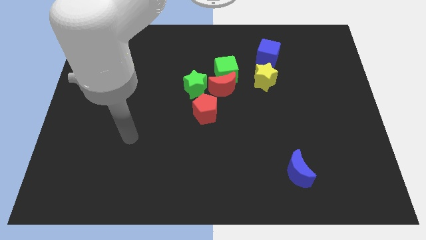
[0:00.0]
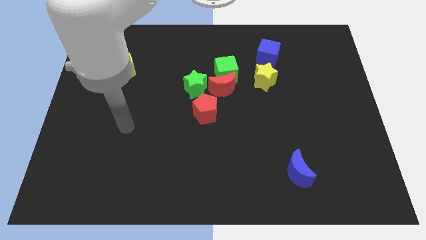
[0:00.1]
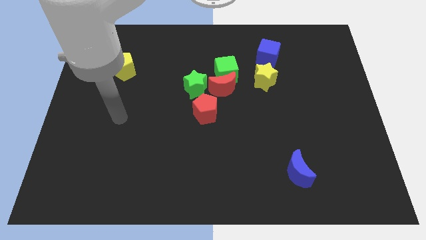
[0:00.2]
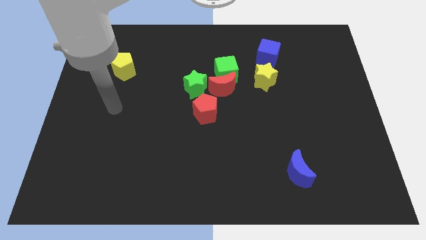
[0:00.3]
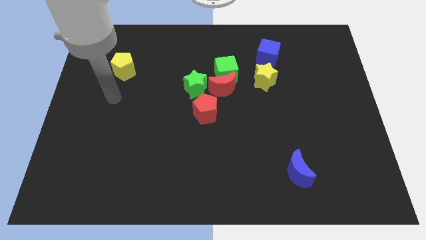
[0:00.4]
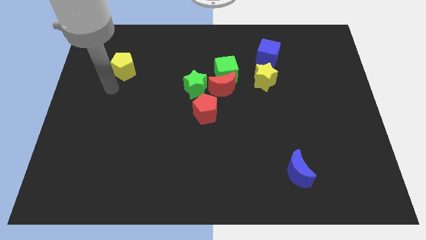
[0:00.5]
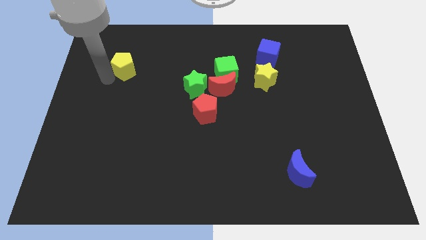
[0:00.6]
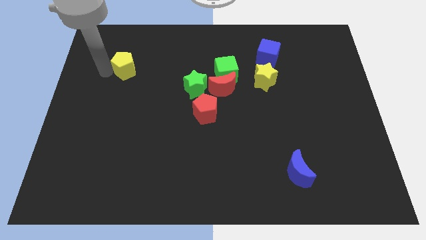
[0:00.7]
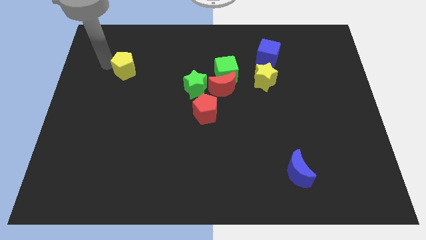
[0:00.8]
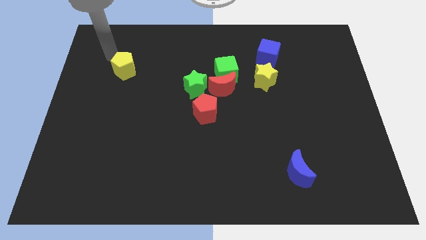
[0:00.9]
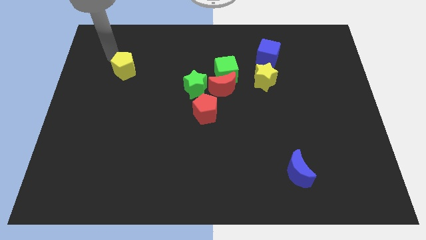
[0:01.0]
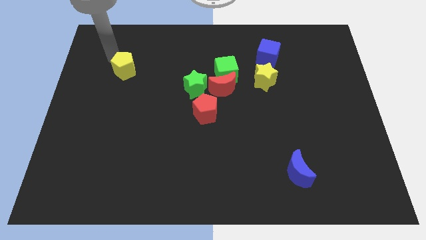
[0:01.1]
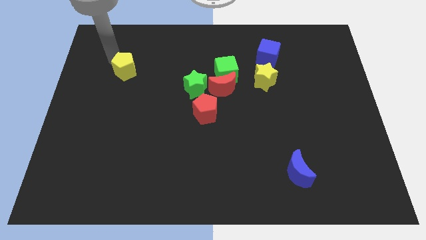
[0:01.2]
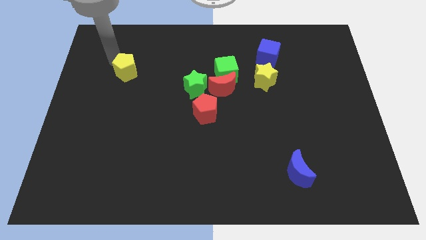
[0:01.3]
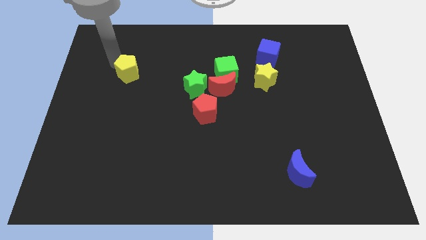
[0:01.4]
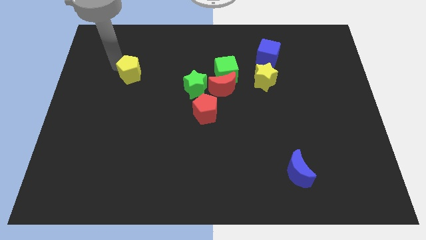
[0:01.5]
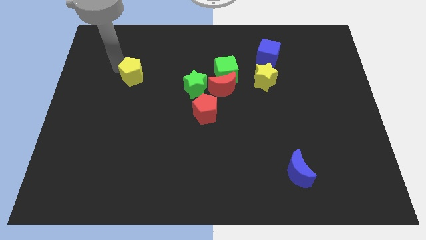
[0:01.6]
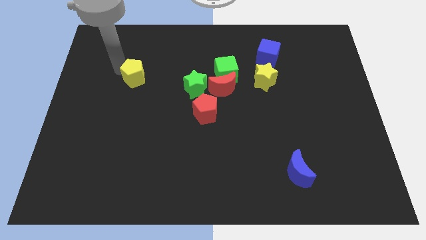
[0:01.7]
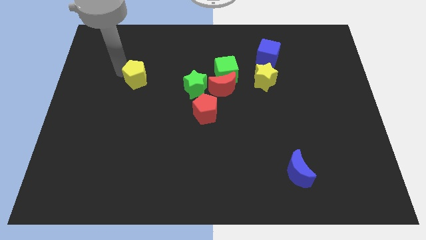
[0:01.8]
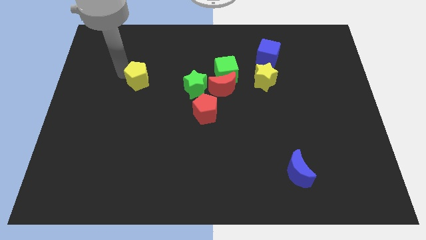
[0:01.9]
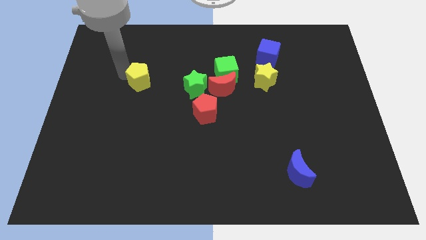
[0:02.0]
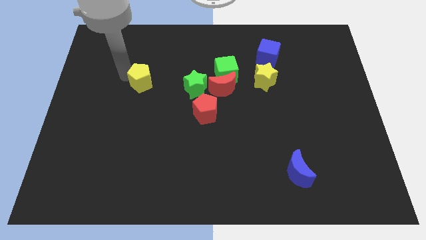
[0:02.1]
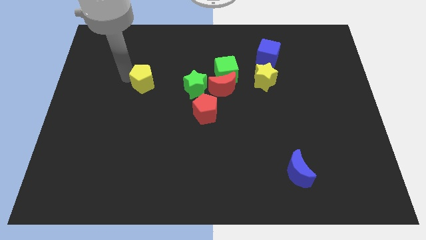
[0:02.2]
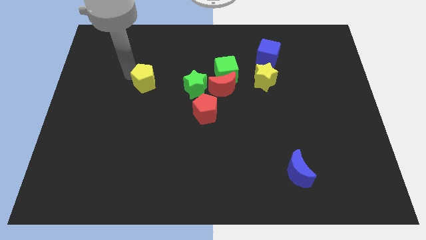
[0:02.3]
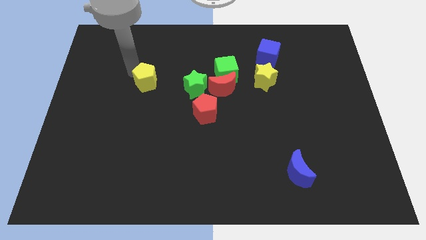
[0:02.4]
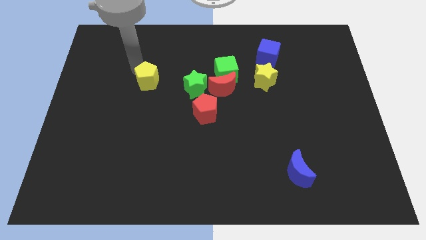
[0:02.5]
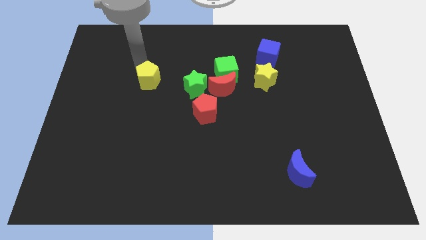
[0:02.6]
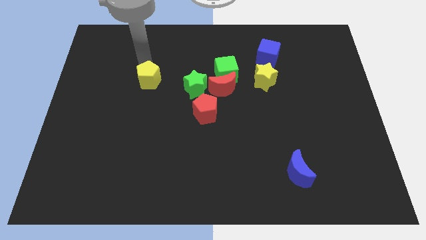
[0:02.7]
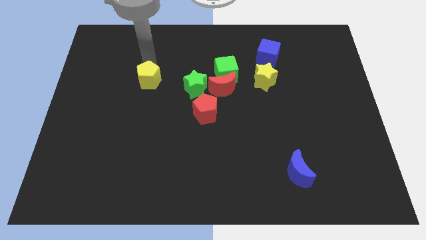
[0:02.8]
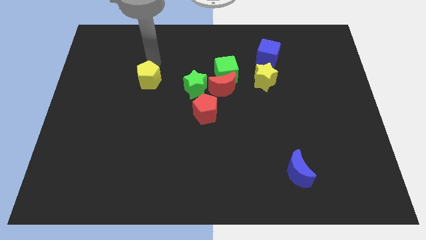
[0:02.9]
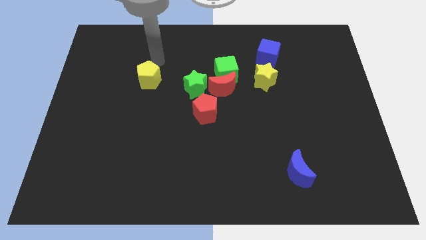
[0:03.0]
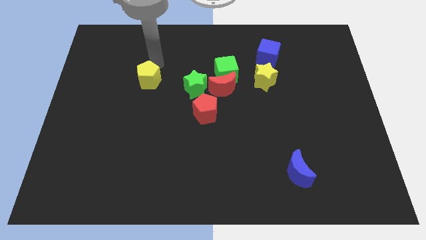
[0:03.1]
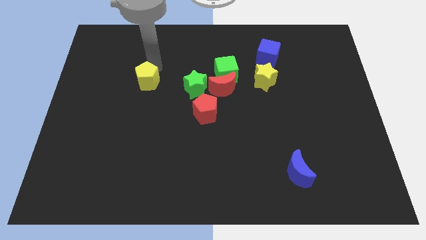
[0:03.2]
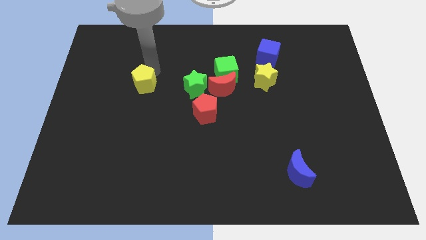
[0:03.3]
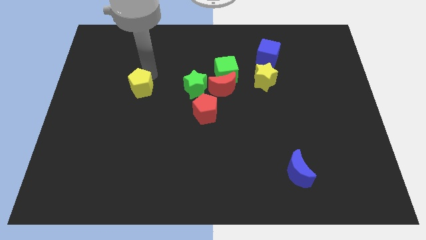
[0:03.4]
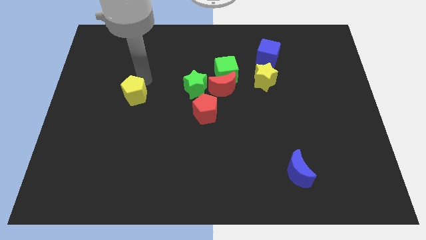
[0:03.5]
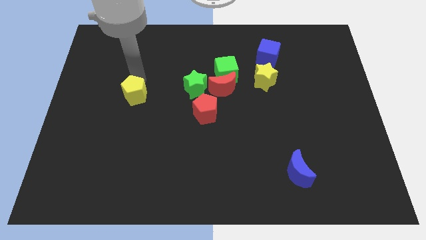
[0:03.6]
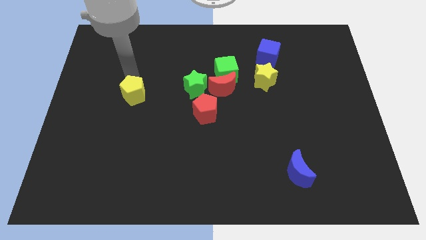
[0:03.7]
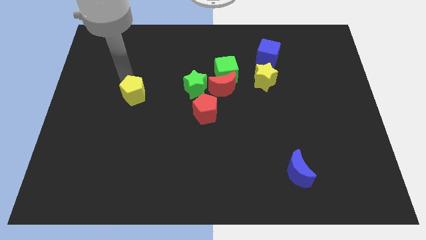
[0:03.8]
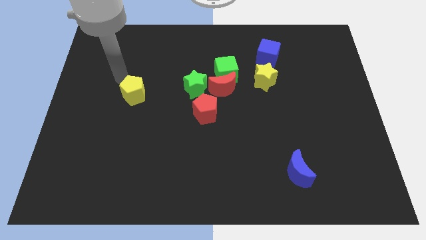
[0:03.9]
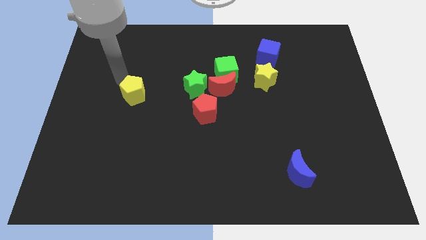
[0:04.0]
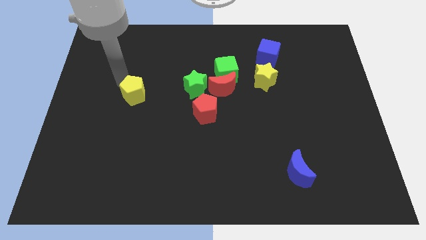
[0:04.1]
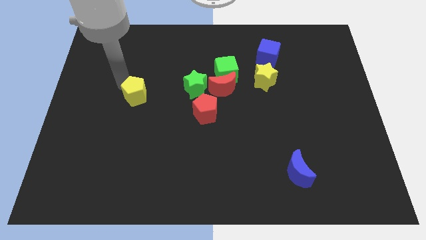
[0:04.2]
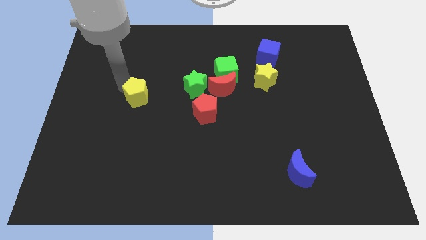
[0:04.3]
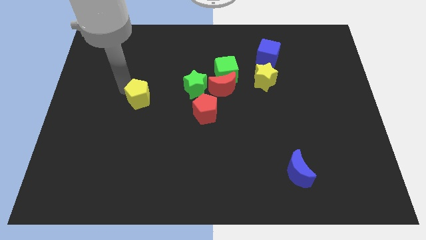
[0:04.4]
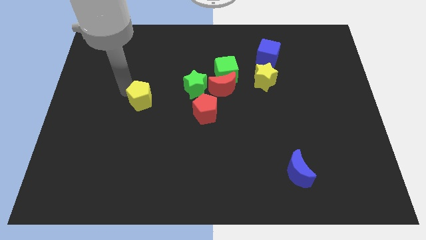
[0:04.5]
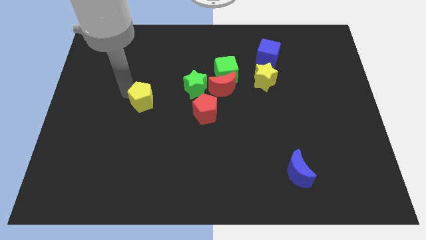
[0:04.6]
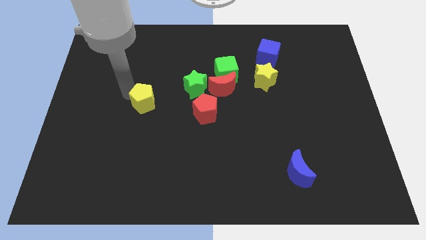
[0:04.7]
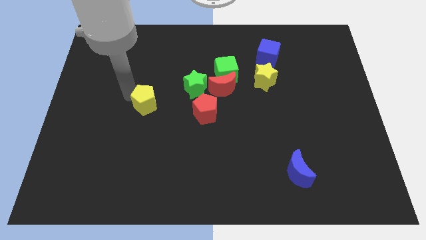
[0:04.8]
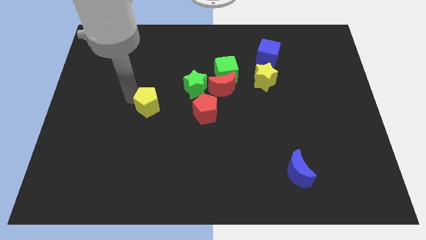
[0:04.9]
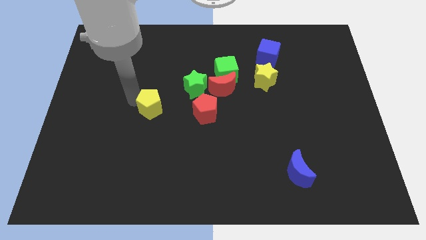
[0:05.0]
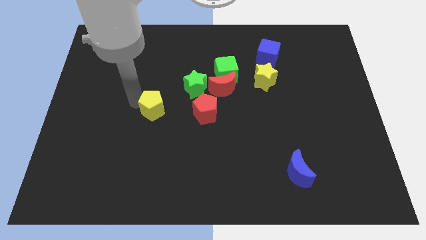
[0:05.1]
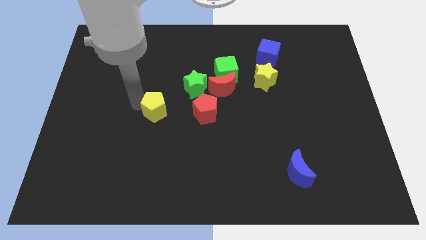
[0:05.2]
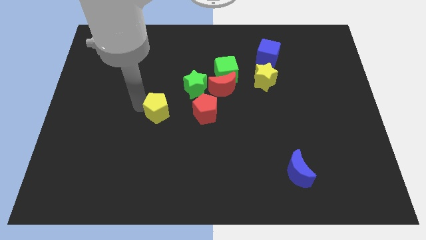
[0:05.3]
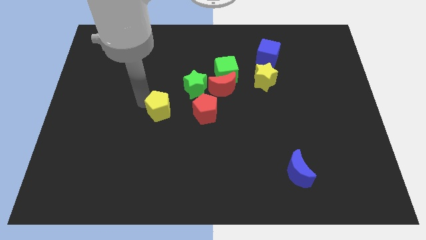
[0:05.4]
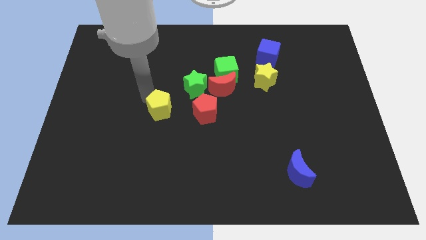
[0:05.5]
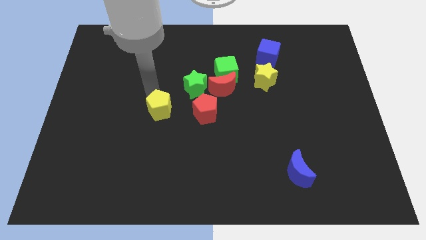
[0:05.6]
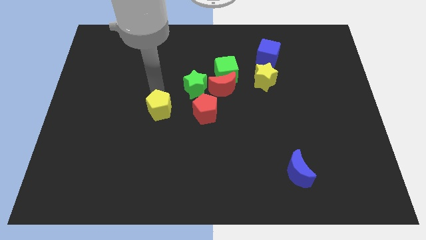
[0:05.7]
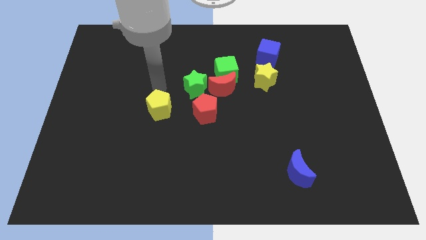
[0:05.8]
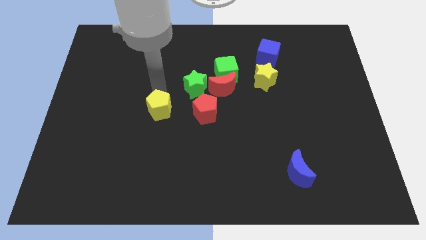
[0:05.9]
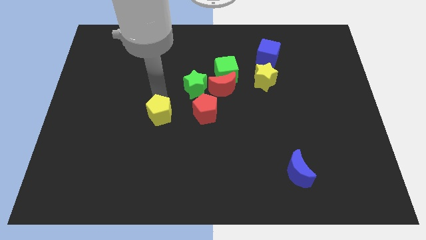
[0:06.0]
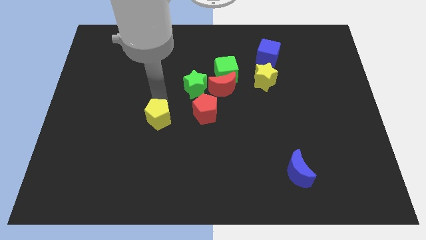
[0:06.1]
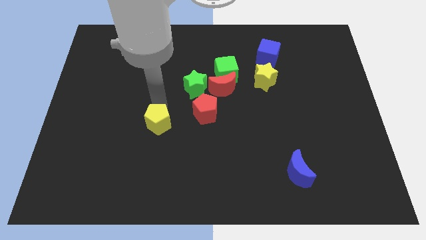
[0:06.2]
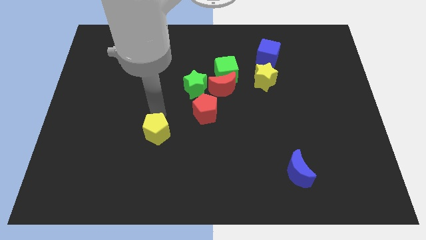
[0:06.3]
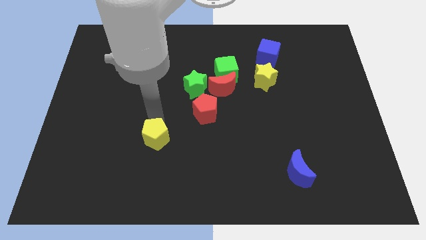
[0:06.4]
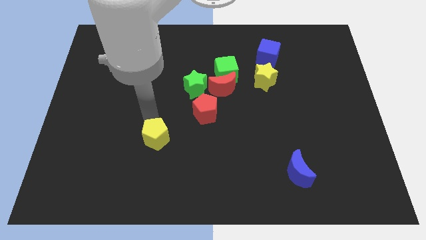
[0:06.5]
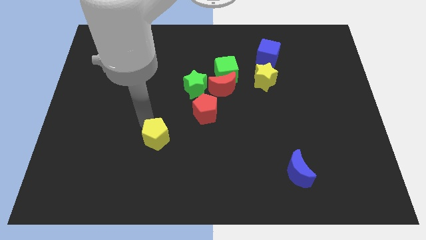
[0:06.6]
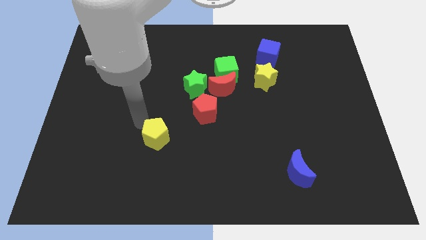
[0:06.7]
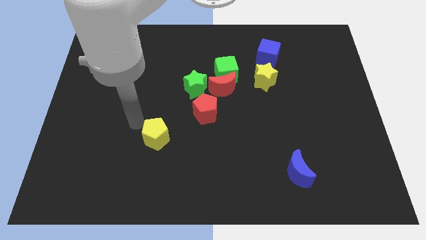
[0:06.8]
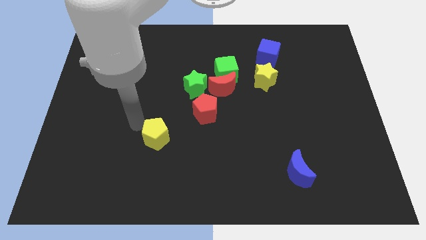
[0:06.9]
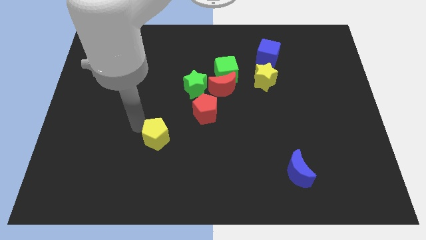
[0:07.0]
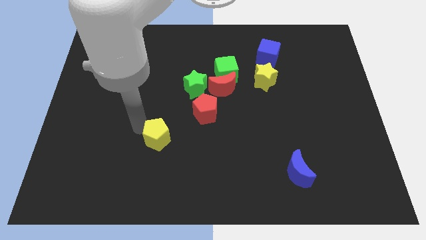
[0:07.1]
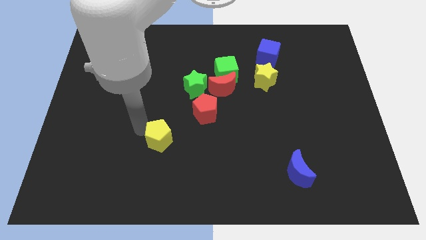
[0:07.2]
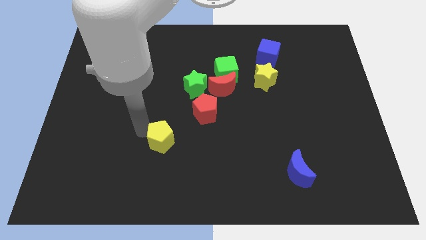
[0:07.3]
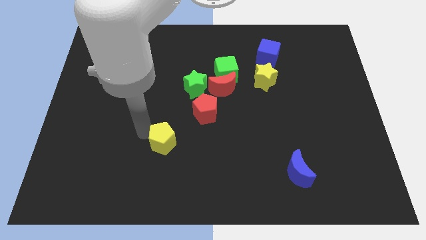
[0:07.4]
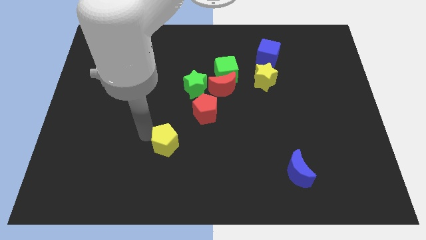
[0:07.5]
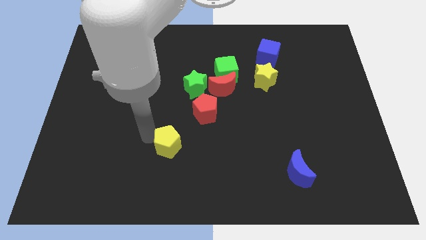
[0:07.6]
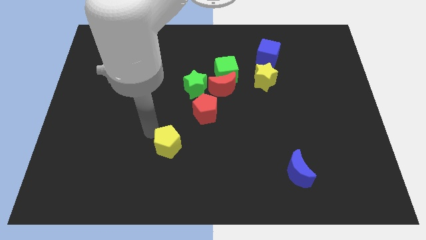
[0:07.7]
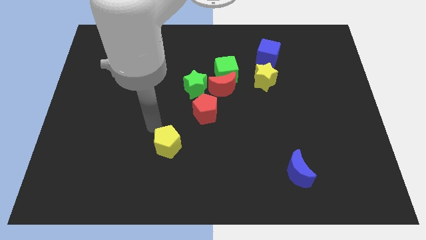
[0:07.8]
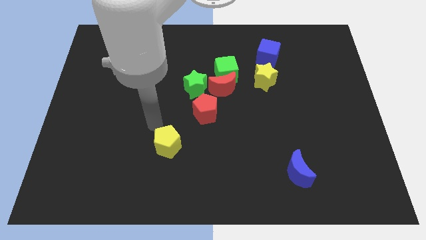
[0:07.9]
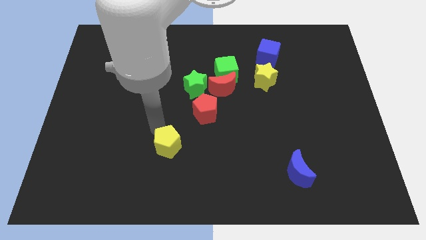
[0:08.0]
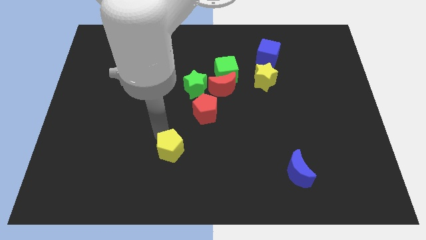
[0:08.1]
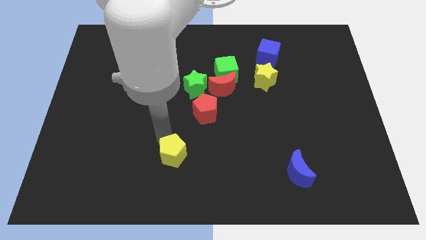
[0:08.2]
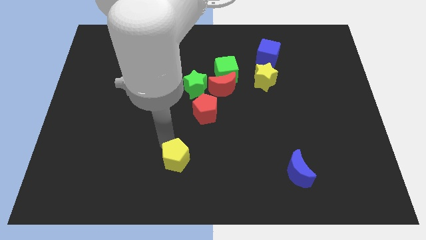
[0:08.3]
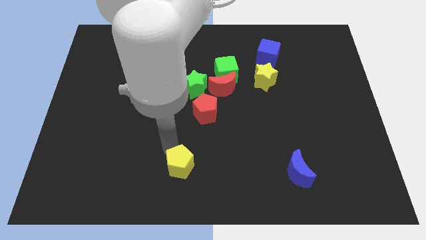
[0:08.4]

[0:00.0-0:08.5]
slide the yellow pentagon to the bottom
